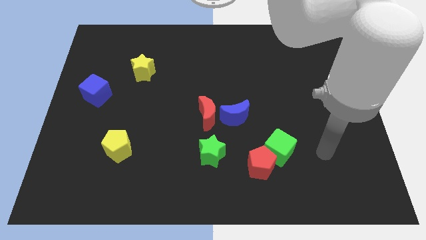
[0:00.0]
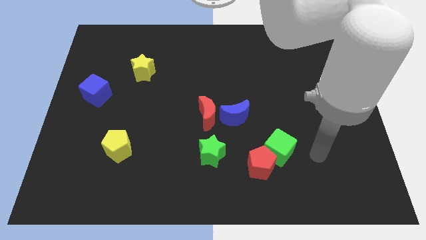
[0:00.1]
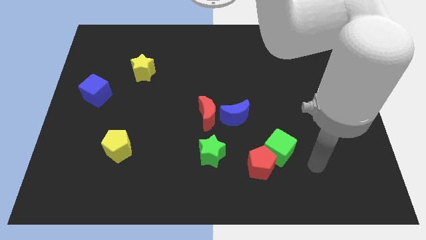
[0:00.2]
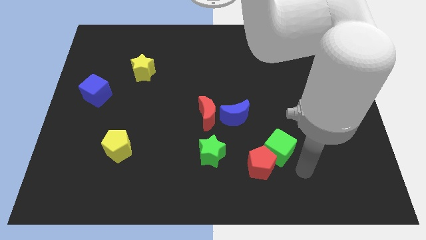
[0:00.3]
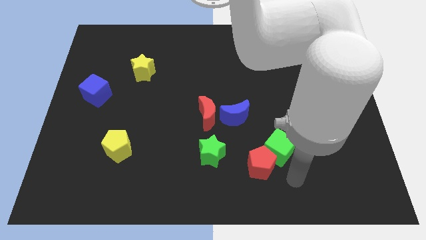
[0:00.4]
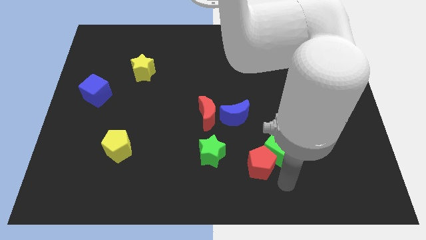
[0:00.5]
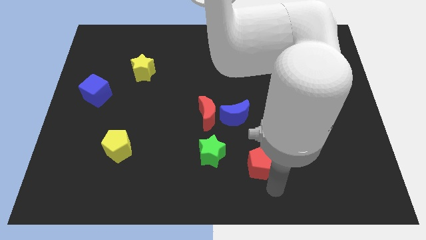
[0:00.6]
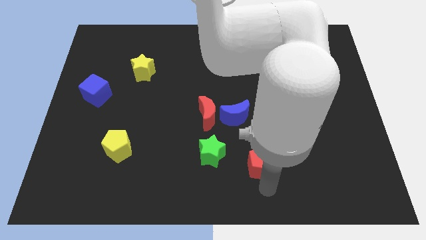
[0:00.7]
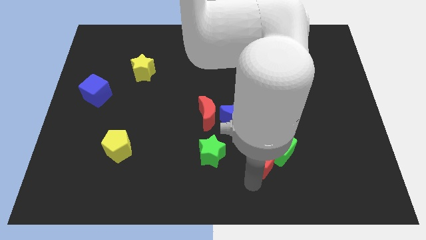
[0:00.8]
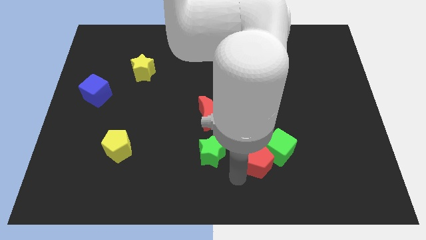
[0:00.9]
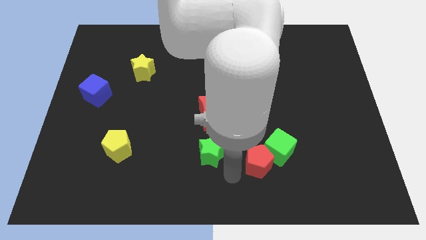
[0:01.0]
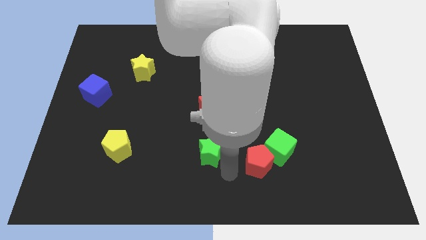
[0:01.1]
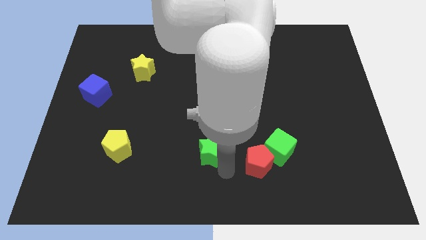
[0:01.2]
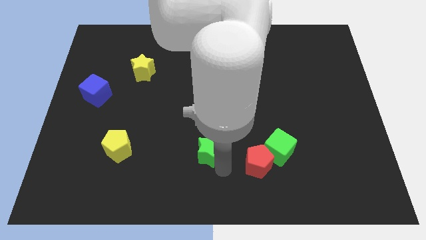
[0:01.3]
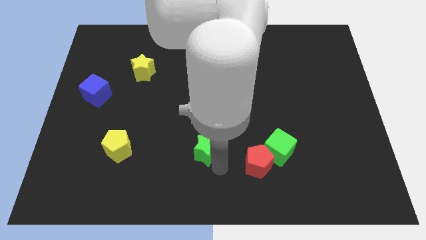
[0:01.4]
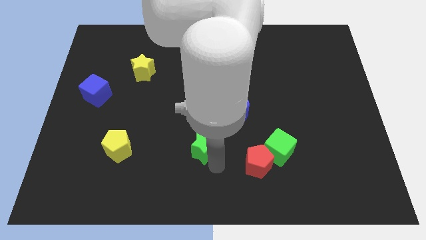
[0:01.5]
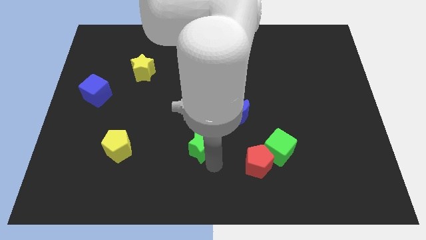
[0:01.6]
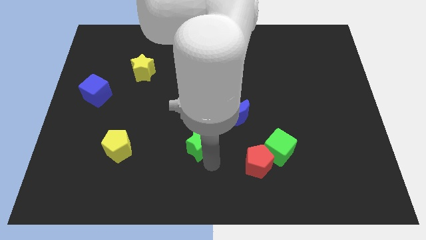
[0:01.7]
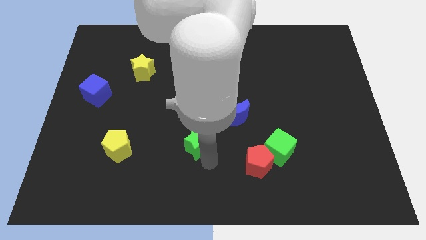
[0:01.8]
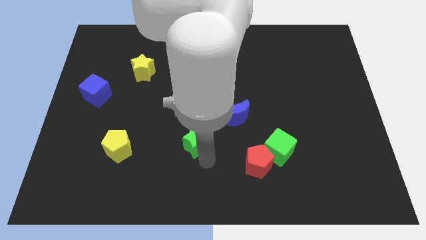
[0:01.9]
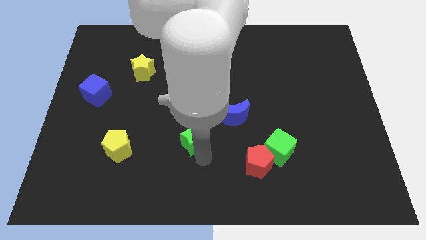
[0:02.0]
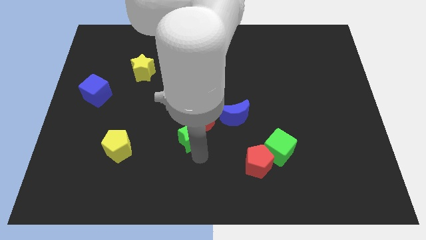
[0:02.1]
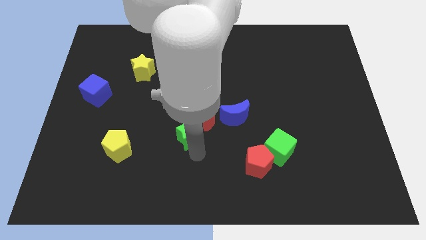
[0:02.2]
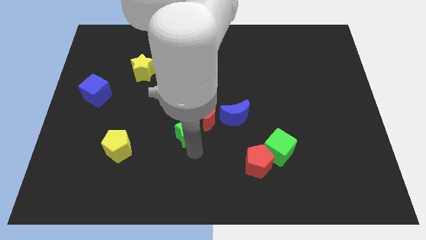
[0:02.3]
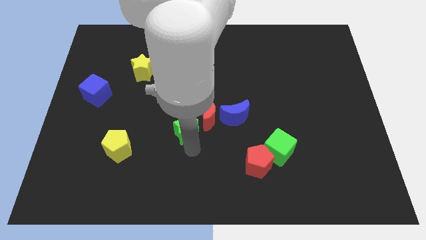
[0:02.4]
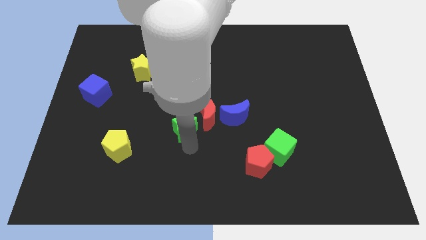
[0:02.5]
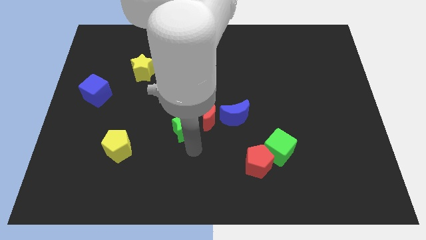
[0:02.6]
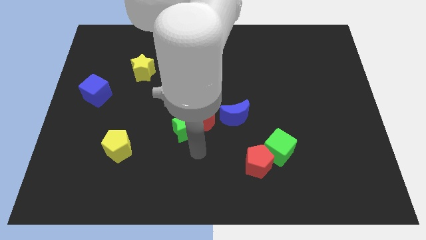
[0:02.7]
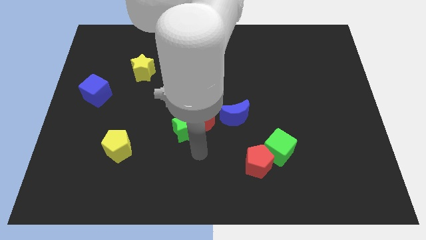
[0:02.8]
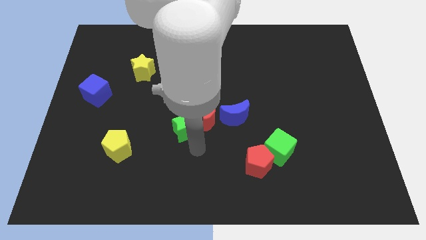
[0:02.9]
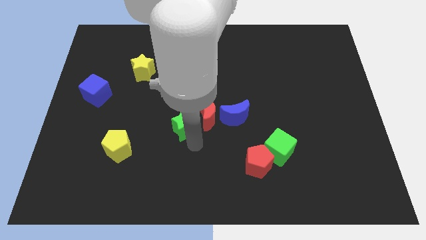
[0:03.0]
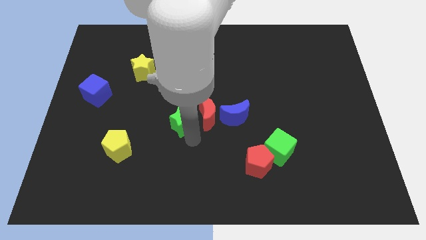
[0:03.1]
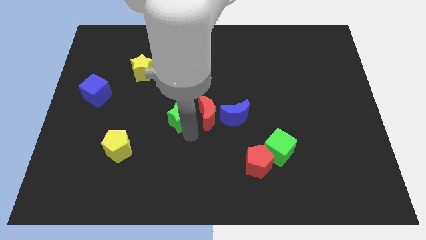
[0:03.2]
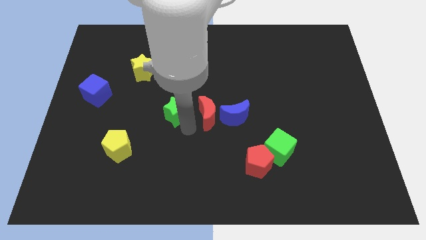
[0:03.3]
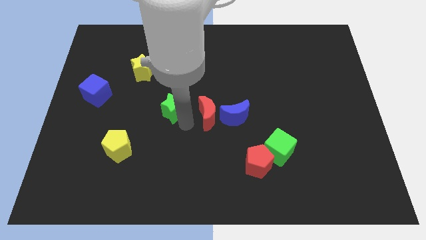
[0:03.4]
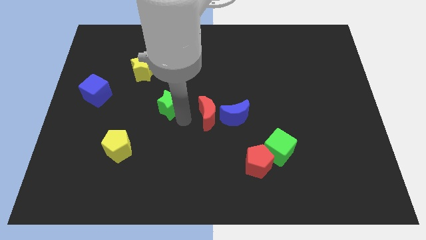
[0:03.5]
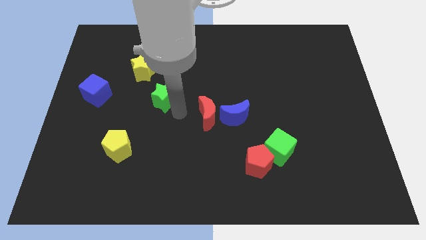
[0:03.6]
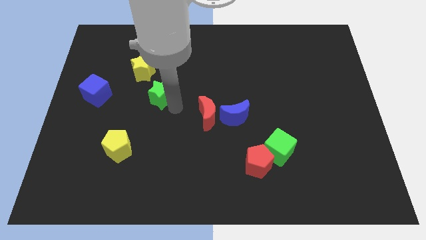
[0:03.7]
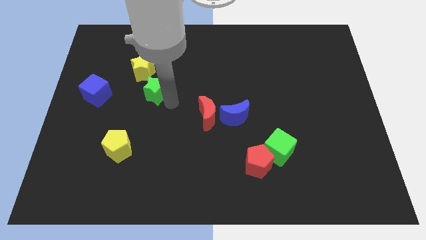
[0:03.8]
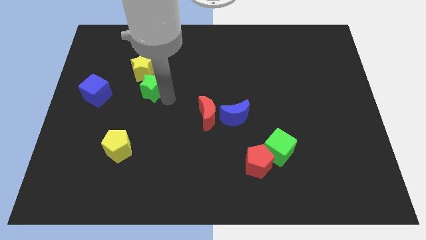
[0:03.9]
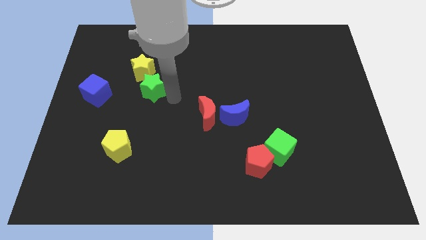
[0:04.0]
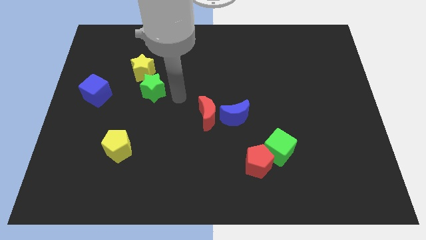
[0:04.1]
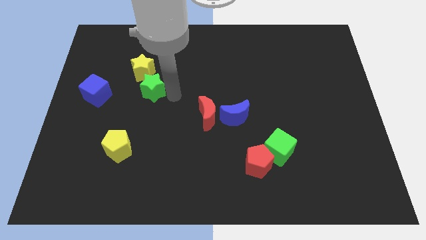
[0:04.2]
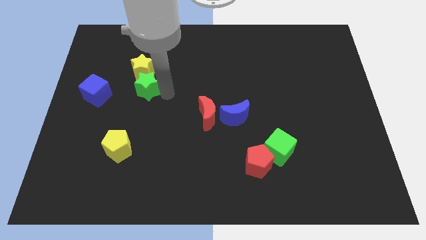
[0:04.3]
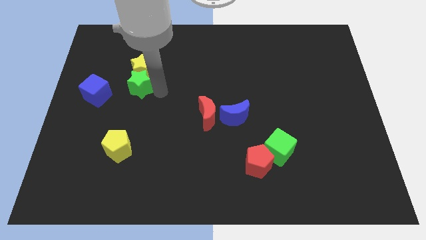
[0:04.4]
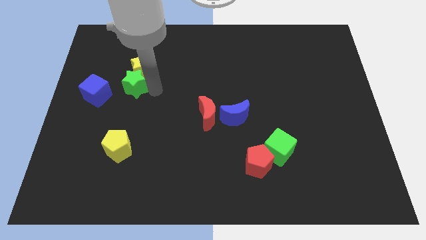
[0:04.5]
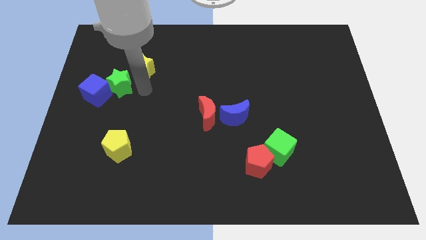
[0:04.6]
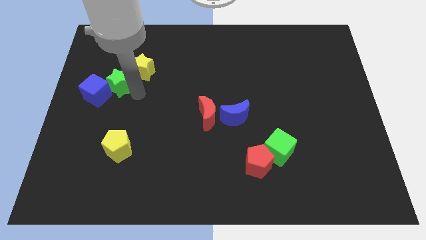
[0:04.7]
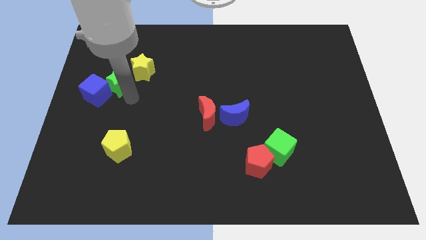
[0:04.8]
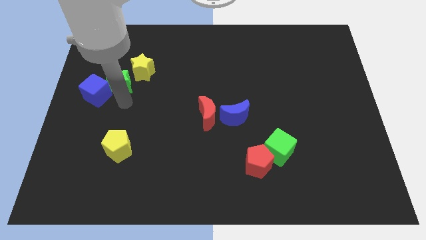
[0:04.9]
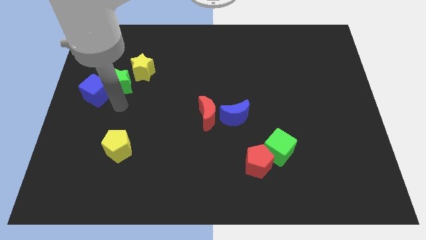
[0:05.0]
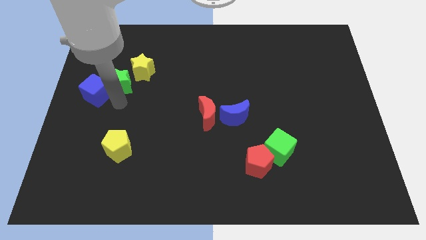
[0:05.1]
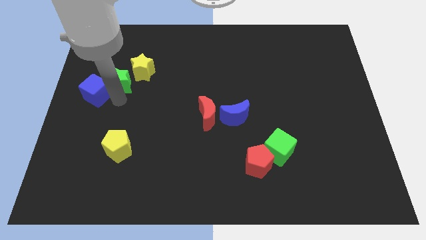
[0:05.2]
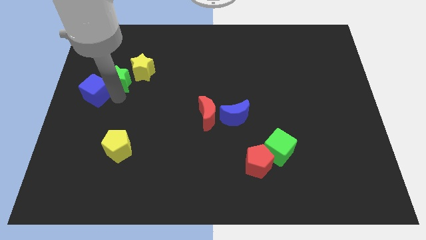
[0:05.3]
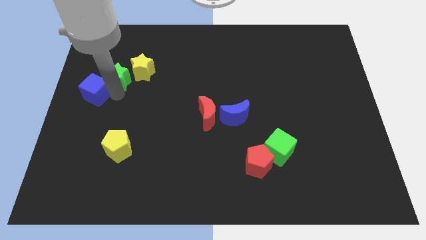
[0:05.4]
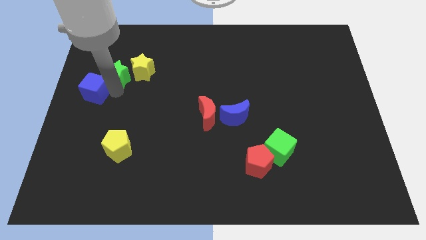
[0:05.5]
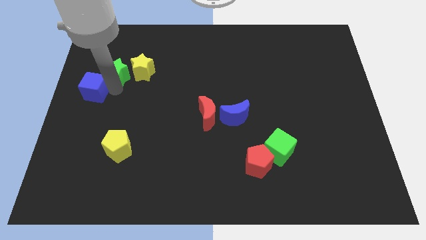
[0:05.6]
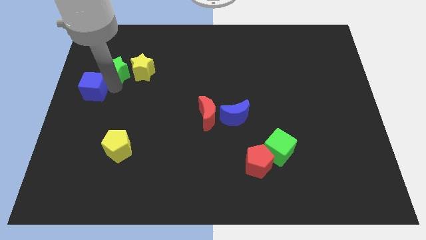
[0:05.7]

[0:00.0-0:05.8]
push the green star to the top left side of the yellow star

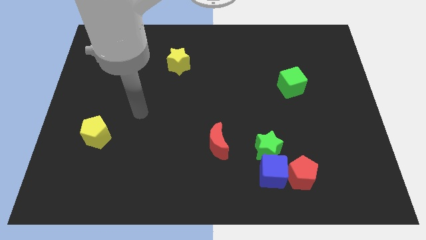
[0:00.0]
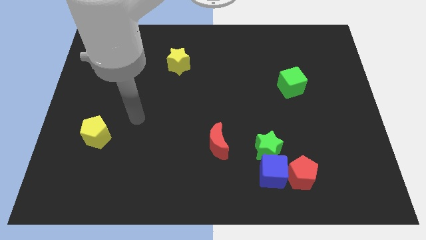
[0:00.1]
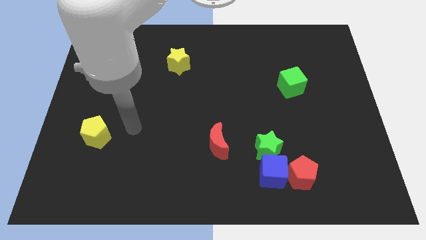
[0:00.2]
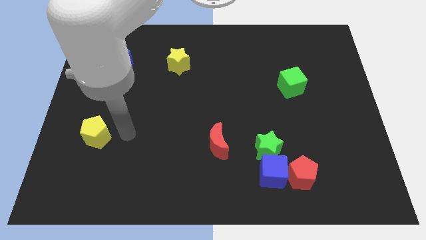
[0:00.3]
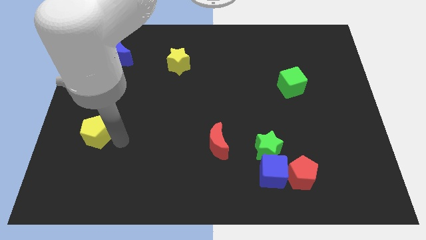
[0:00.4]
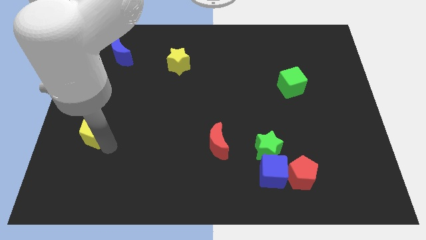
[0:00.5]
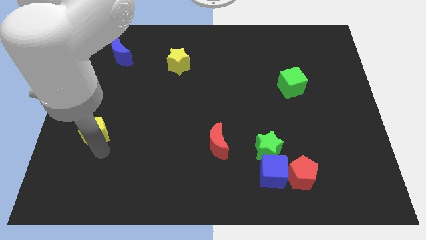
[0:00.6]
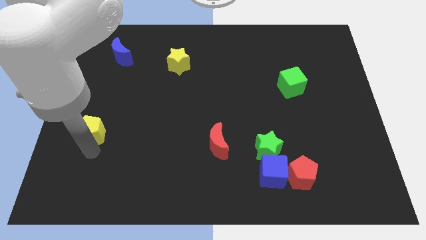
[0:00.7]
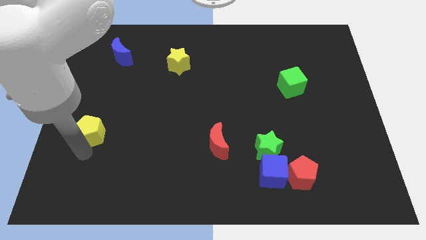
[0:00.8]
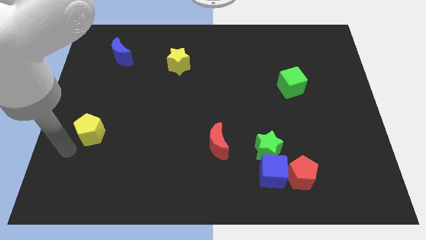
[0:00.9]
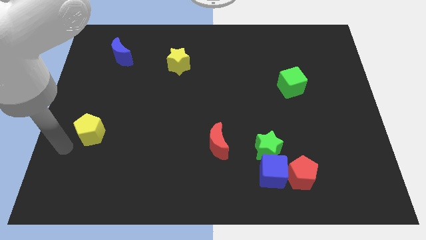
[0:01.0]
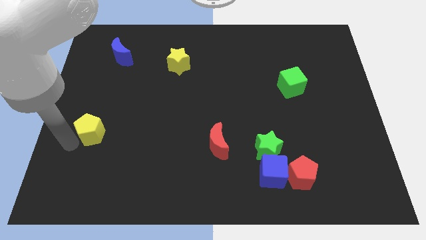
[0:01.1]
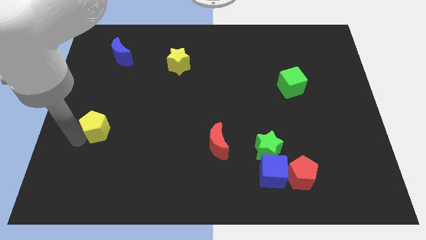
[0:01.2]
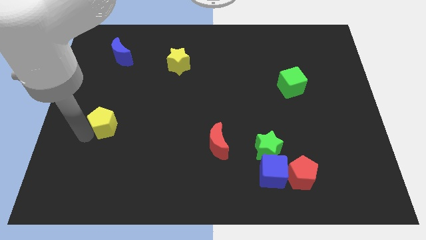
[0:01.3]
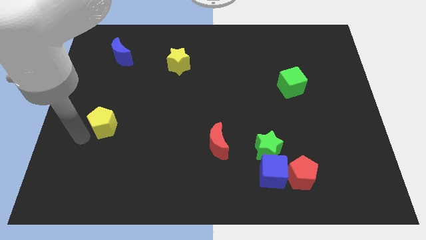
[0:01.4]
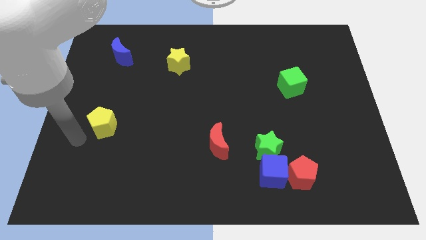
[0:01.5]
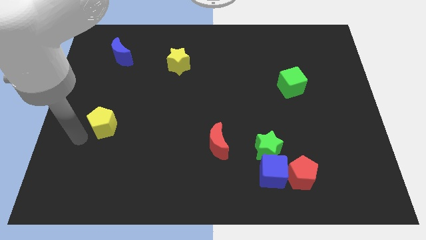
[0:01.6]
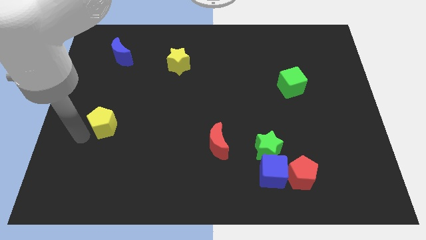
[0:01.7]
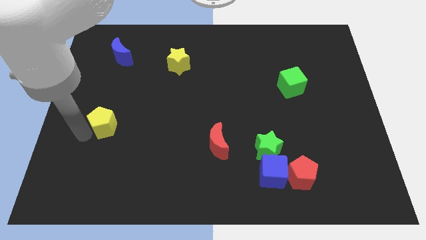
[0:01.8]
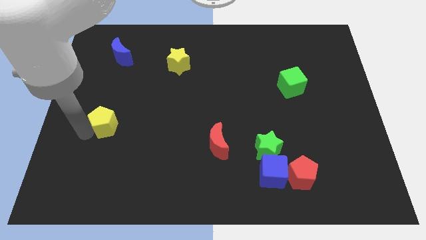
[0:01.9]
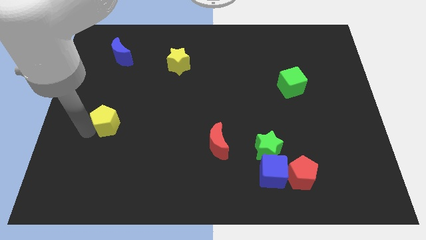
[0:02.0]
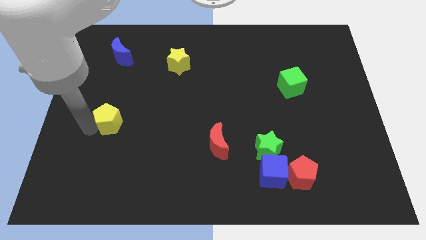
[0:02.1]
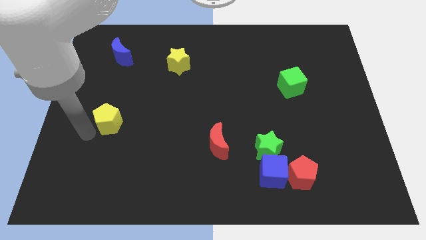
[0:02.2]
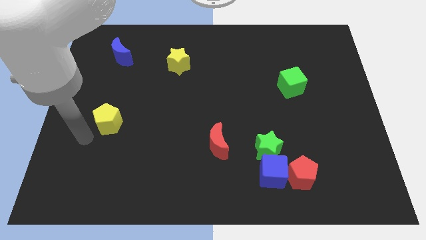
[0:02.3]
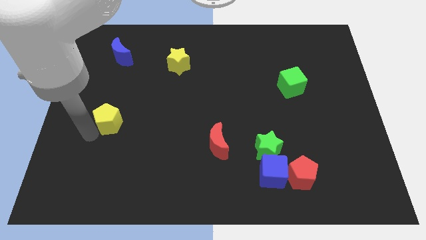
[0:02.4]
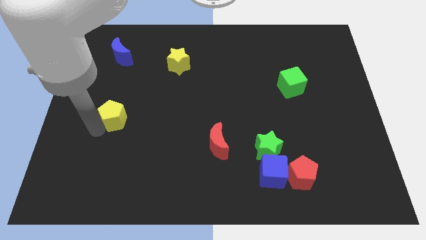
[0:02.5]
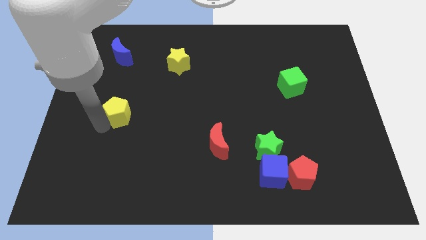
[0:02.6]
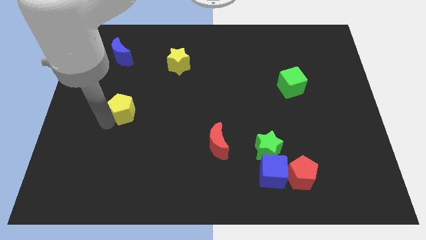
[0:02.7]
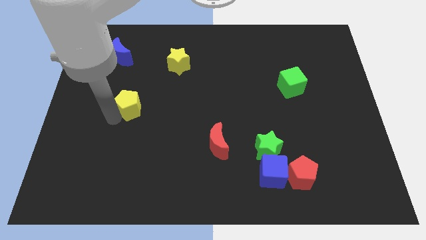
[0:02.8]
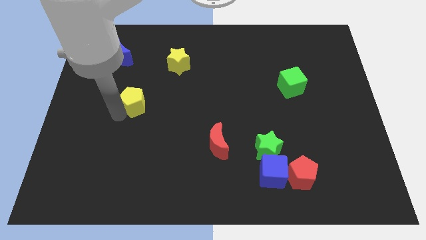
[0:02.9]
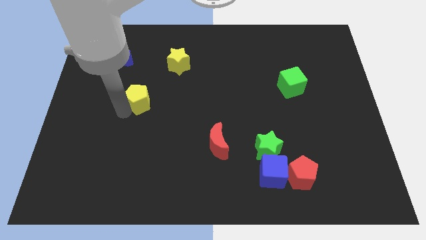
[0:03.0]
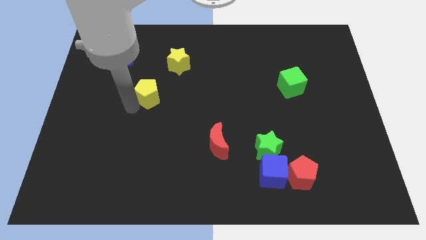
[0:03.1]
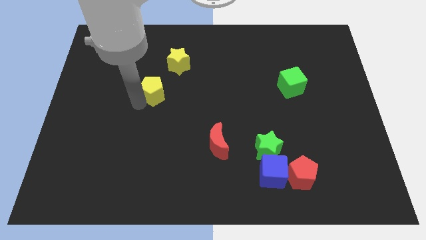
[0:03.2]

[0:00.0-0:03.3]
move the yellow pentagon to the bottom left of the yellow star
